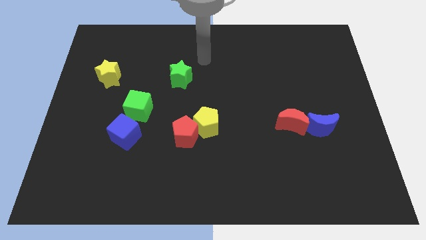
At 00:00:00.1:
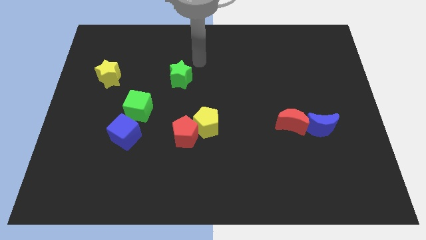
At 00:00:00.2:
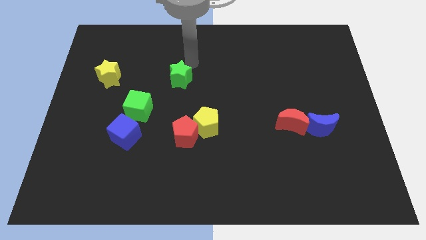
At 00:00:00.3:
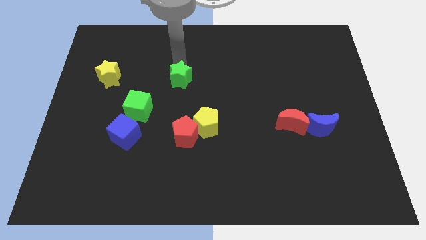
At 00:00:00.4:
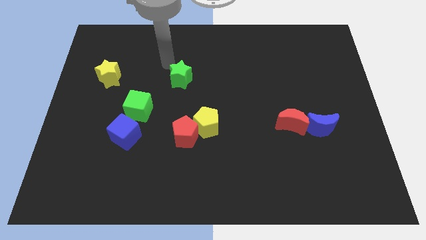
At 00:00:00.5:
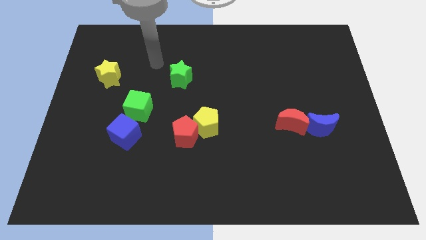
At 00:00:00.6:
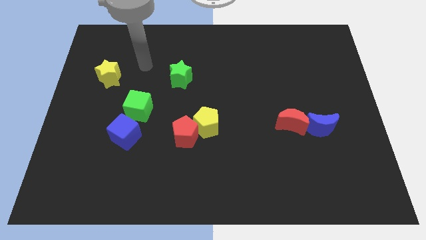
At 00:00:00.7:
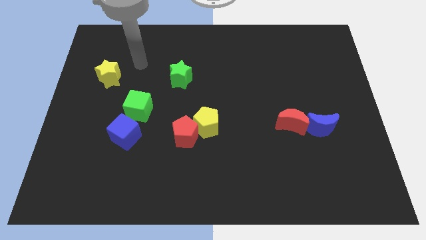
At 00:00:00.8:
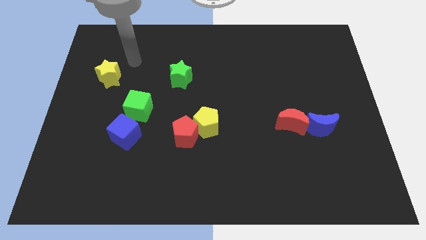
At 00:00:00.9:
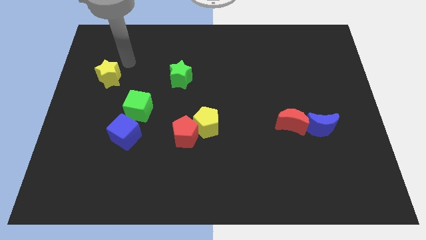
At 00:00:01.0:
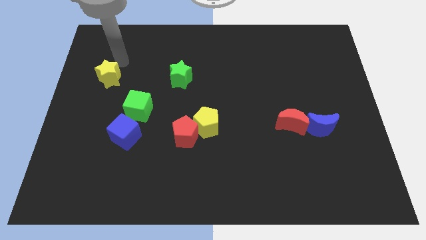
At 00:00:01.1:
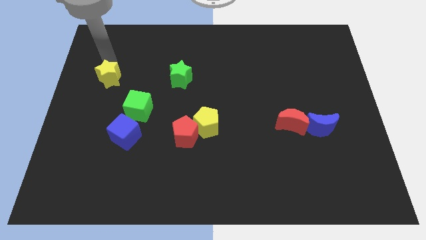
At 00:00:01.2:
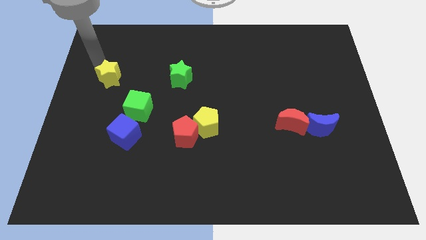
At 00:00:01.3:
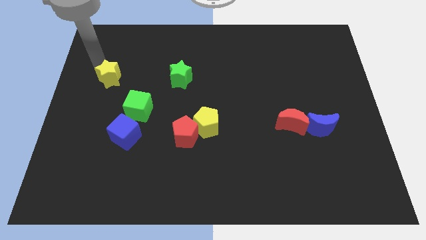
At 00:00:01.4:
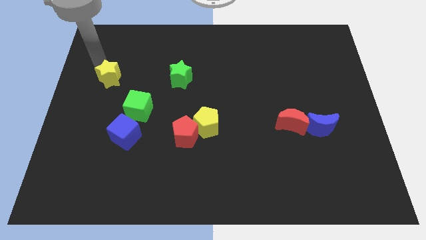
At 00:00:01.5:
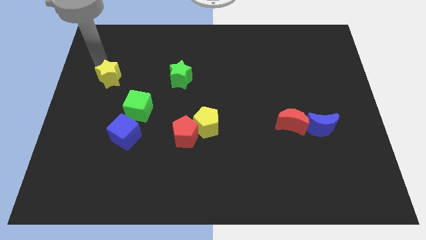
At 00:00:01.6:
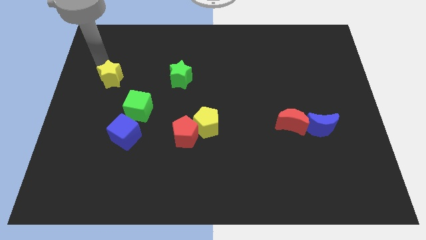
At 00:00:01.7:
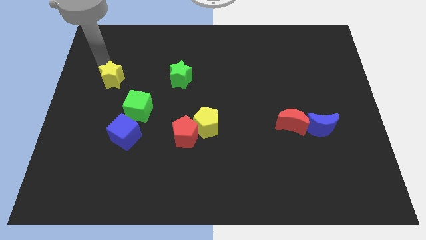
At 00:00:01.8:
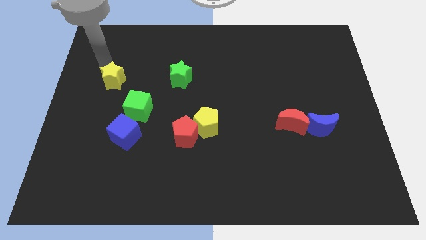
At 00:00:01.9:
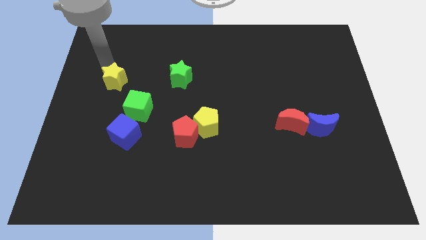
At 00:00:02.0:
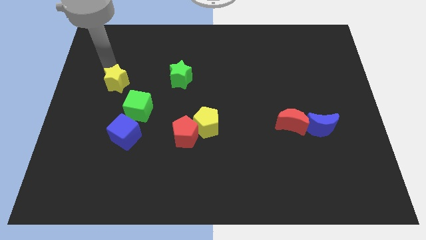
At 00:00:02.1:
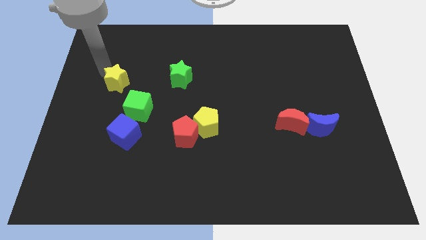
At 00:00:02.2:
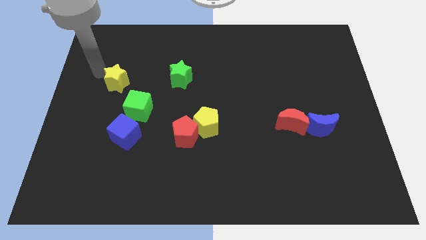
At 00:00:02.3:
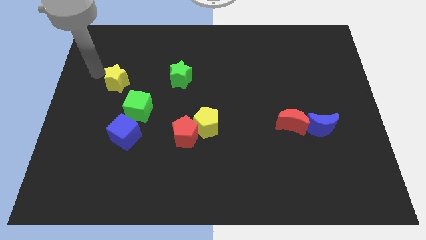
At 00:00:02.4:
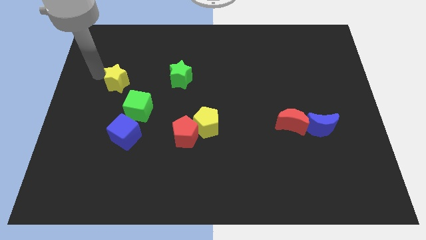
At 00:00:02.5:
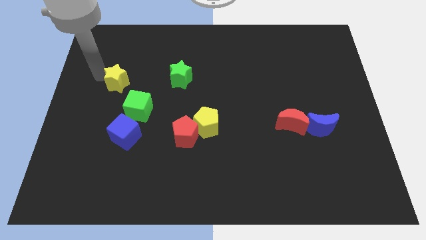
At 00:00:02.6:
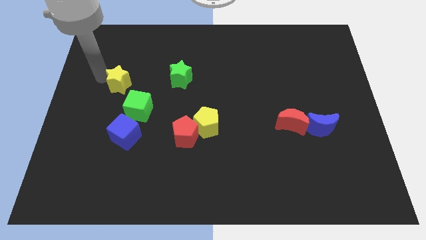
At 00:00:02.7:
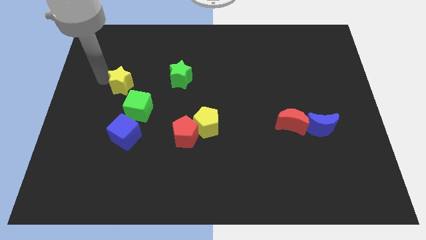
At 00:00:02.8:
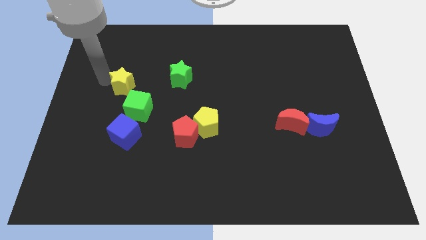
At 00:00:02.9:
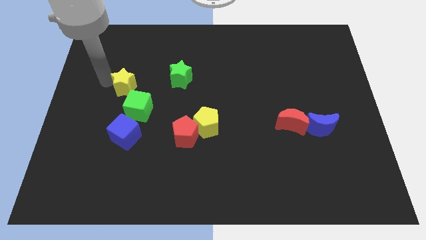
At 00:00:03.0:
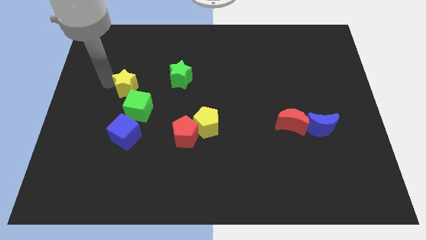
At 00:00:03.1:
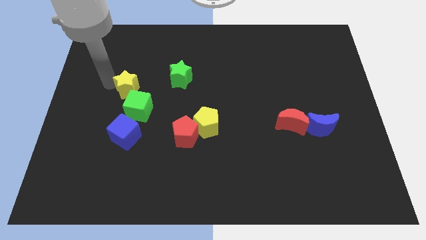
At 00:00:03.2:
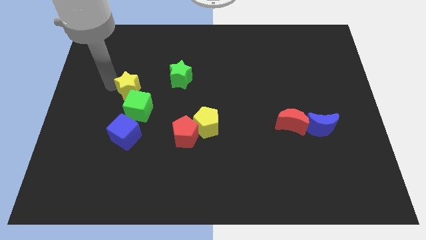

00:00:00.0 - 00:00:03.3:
move the yellow star diagonally down and to the right somewhat

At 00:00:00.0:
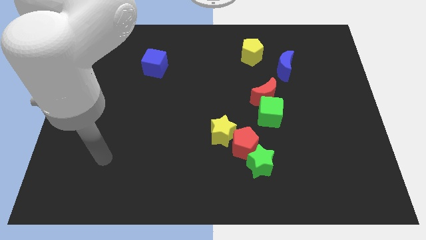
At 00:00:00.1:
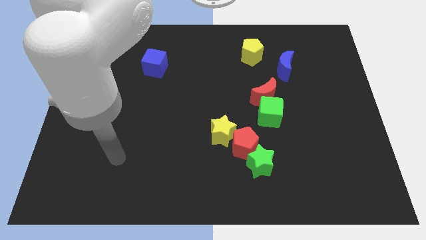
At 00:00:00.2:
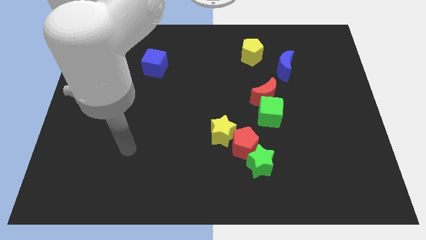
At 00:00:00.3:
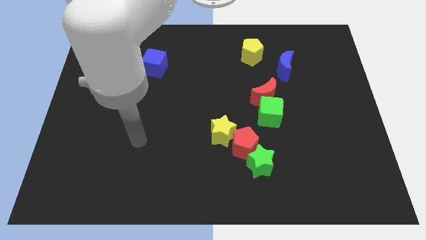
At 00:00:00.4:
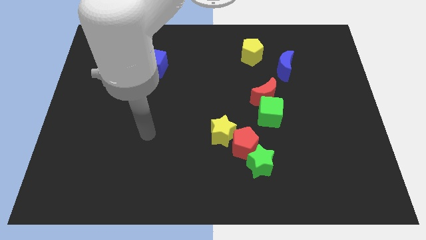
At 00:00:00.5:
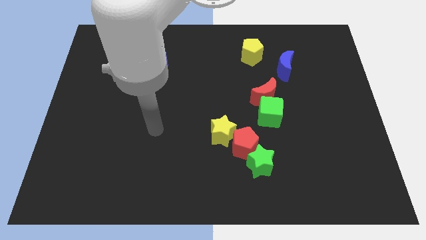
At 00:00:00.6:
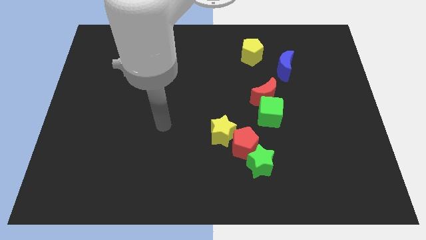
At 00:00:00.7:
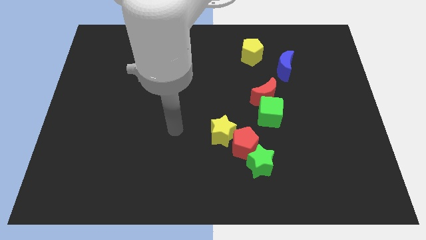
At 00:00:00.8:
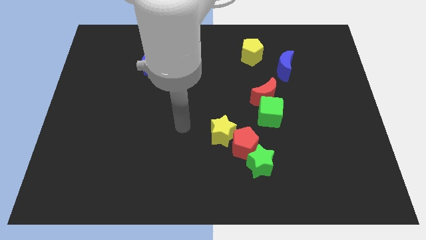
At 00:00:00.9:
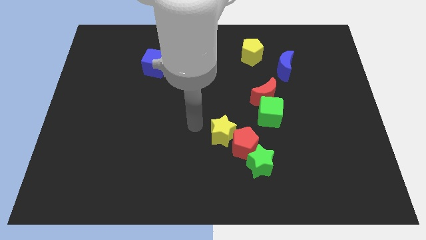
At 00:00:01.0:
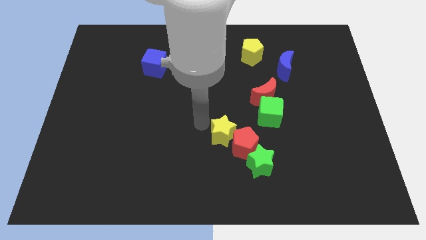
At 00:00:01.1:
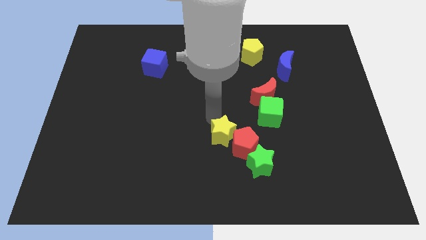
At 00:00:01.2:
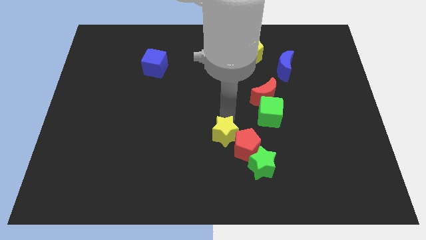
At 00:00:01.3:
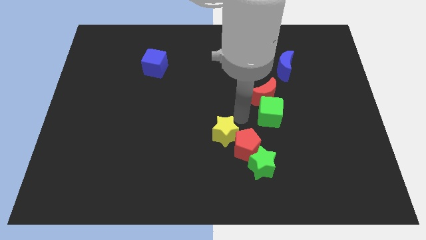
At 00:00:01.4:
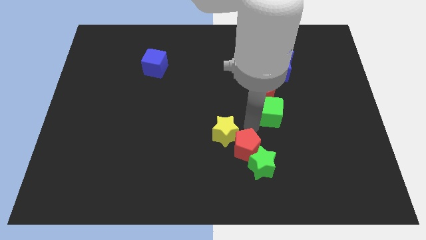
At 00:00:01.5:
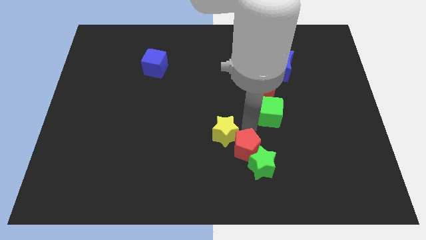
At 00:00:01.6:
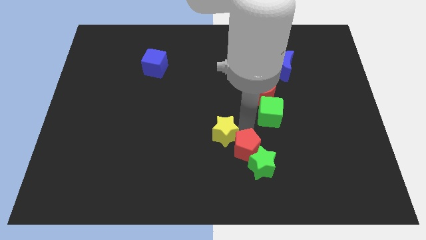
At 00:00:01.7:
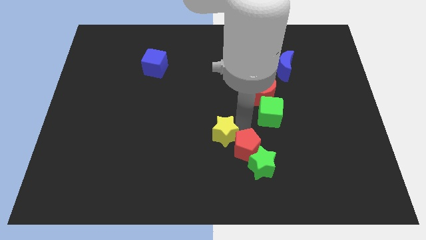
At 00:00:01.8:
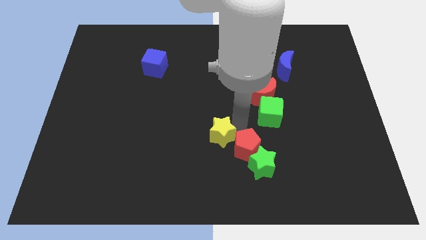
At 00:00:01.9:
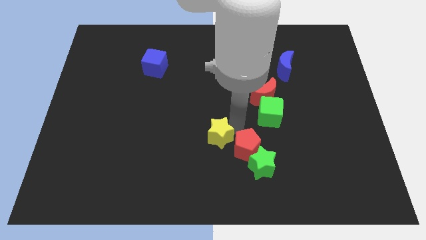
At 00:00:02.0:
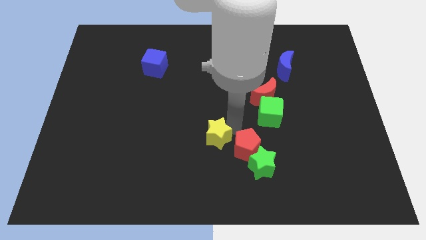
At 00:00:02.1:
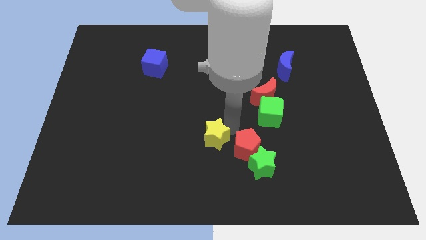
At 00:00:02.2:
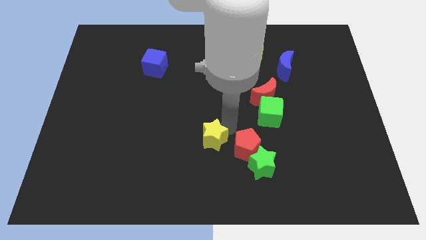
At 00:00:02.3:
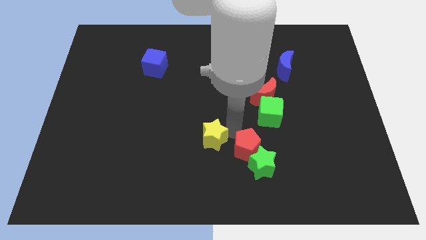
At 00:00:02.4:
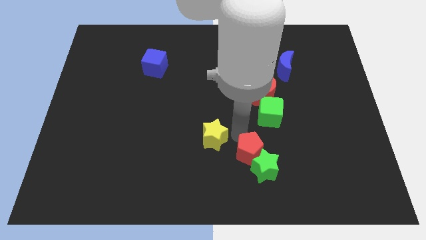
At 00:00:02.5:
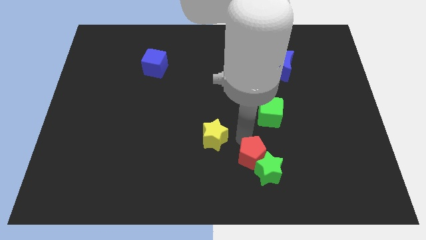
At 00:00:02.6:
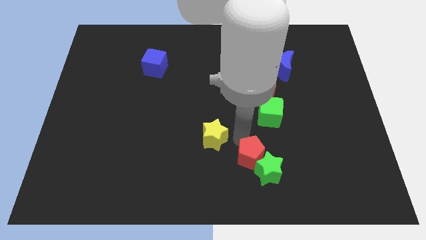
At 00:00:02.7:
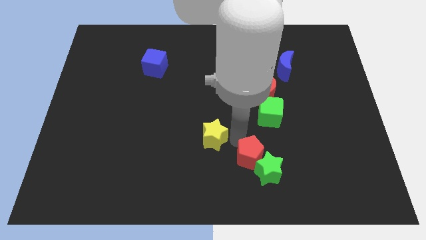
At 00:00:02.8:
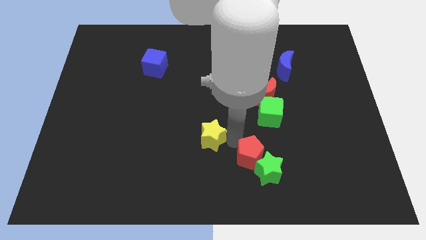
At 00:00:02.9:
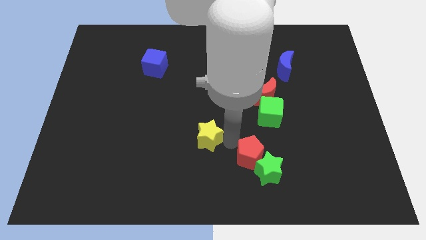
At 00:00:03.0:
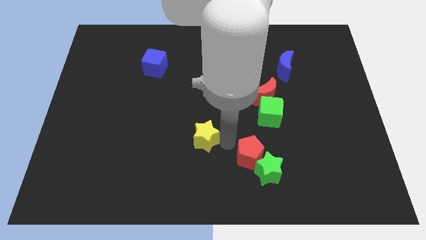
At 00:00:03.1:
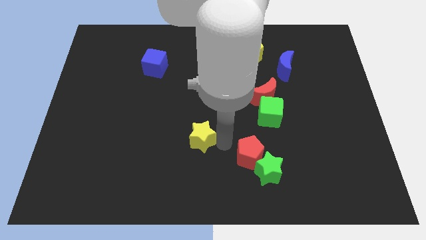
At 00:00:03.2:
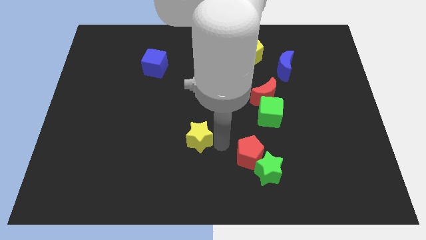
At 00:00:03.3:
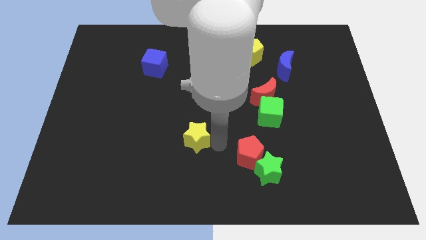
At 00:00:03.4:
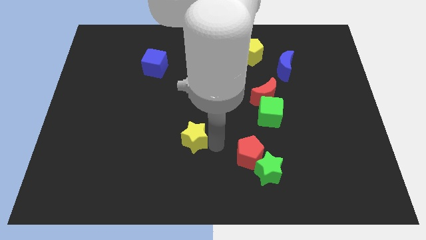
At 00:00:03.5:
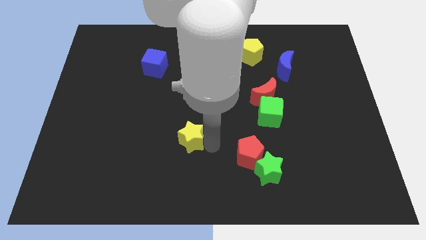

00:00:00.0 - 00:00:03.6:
slightly move the yellow star to the left

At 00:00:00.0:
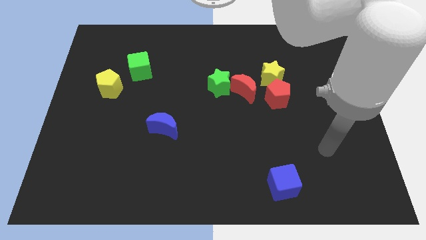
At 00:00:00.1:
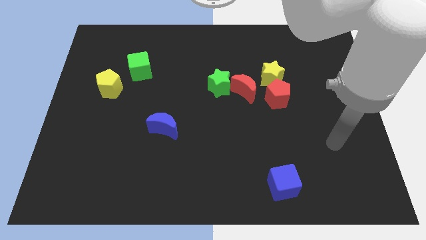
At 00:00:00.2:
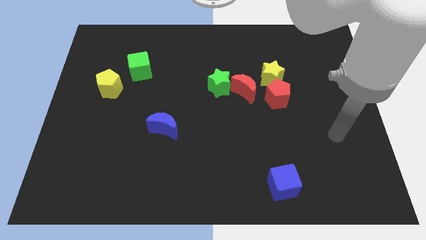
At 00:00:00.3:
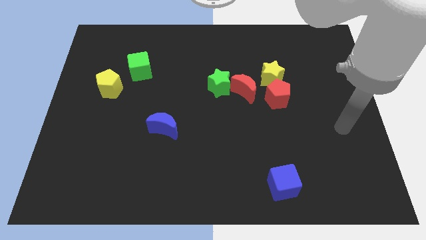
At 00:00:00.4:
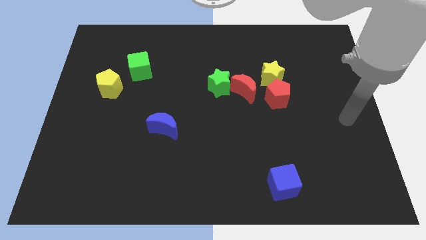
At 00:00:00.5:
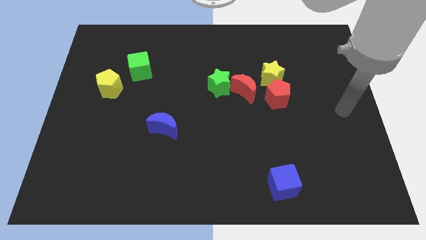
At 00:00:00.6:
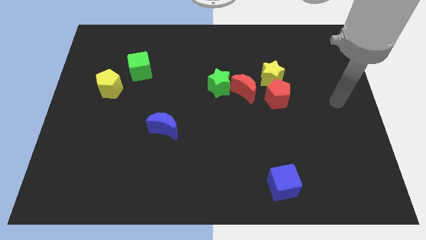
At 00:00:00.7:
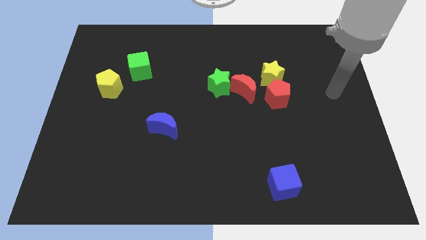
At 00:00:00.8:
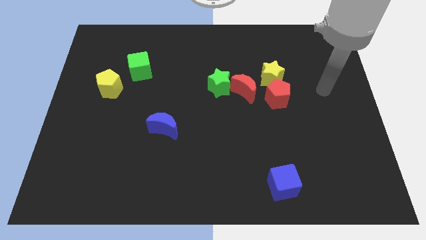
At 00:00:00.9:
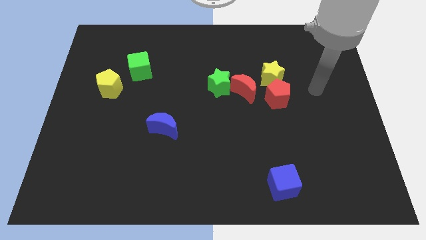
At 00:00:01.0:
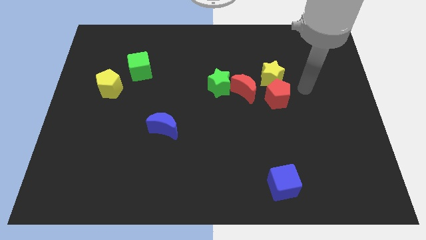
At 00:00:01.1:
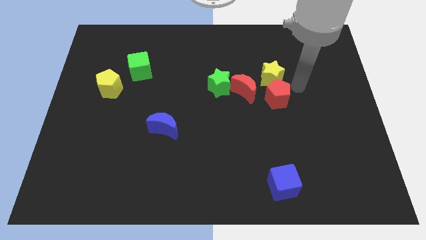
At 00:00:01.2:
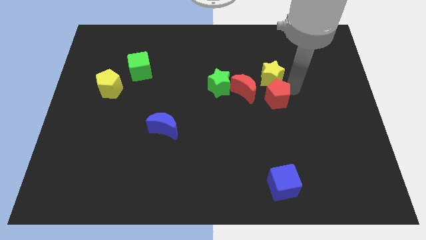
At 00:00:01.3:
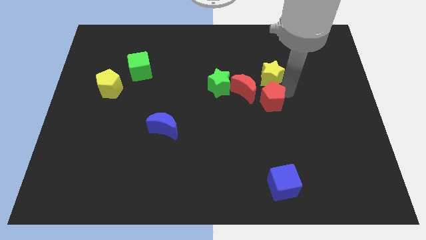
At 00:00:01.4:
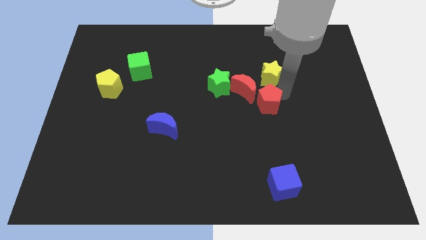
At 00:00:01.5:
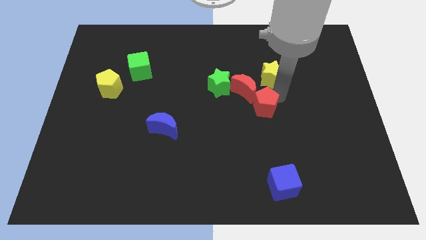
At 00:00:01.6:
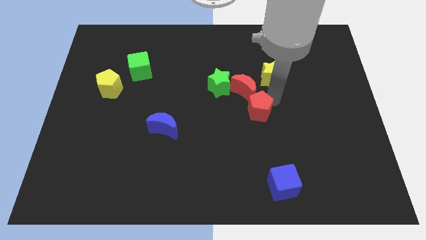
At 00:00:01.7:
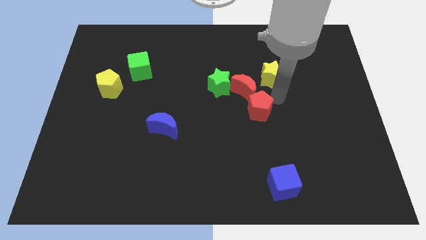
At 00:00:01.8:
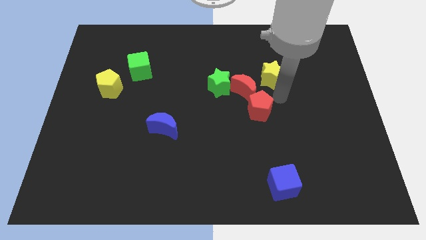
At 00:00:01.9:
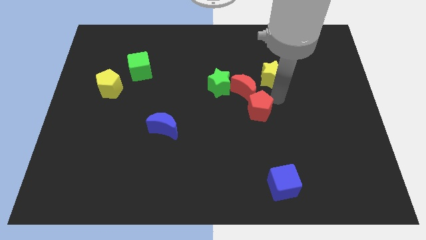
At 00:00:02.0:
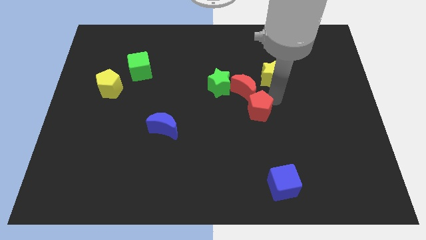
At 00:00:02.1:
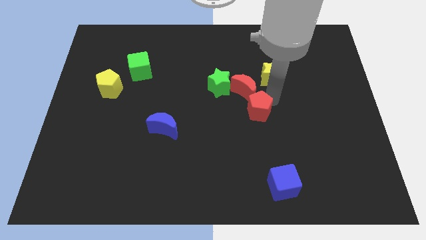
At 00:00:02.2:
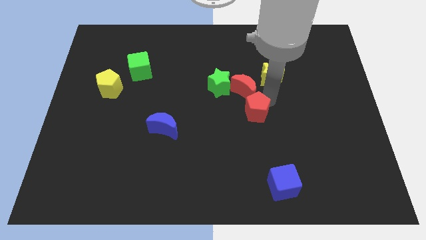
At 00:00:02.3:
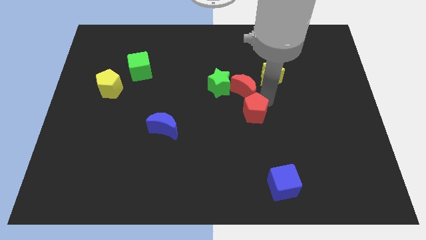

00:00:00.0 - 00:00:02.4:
push the red pentagon somewhat down and left
